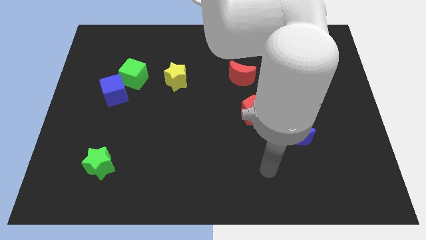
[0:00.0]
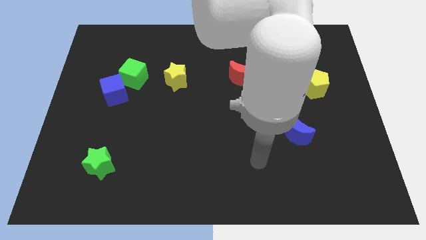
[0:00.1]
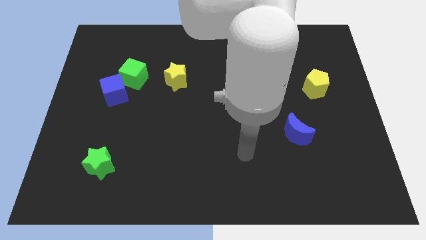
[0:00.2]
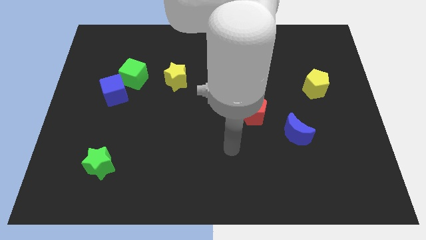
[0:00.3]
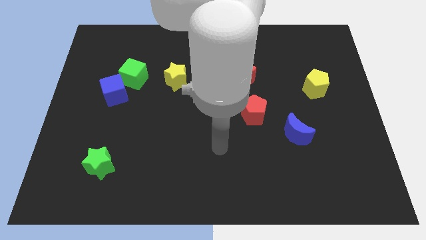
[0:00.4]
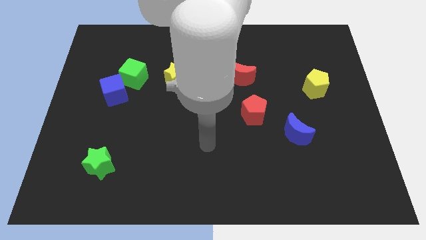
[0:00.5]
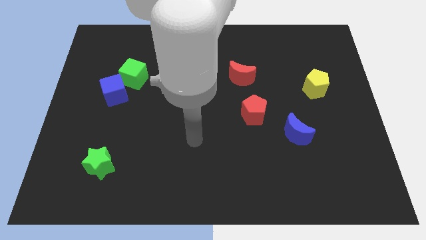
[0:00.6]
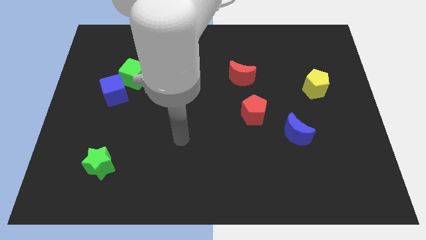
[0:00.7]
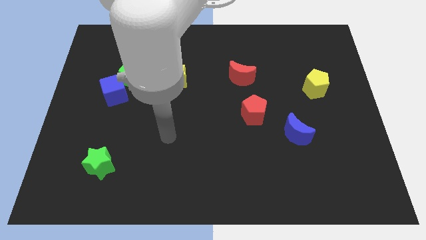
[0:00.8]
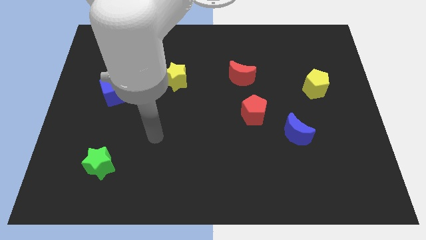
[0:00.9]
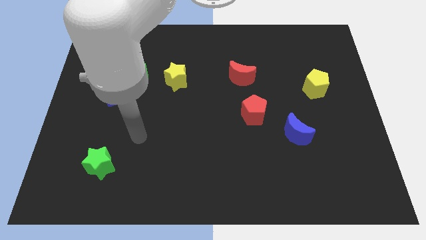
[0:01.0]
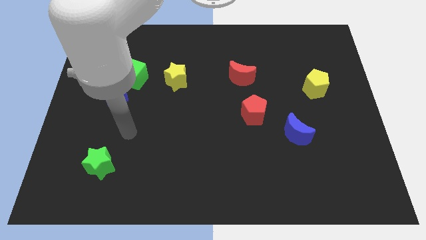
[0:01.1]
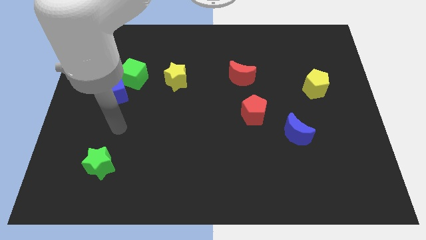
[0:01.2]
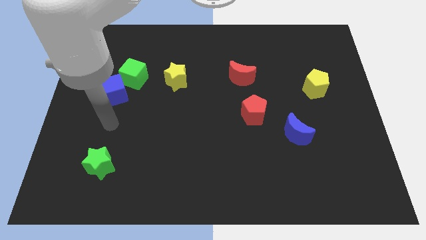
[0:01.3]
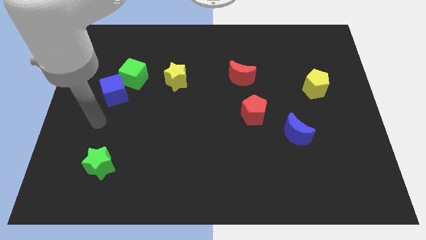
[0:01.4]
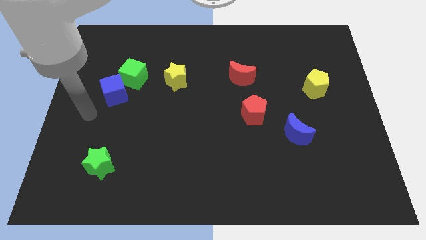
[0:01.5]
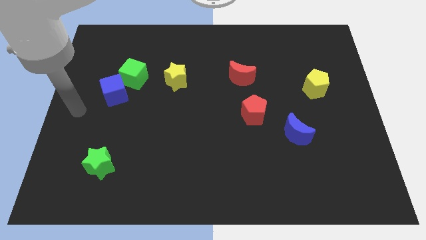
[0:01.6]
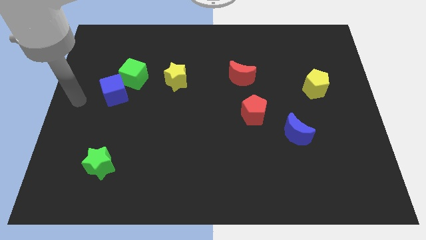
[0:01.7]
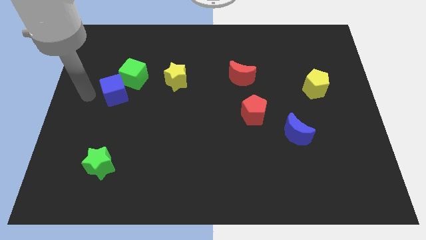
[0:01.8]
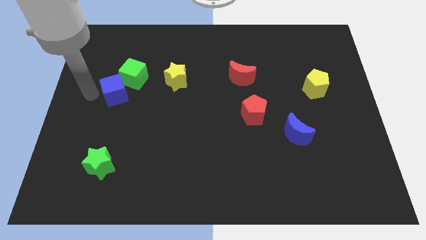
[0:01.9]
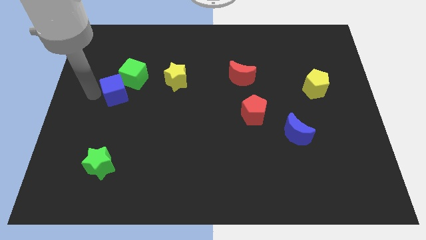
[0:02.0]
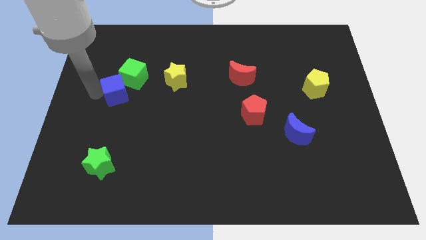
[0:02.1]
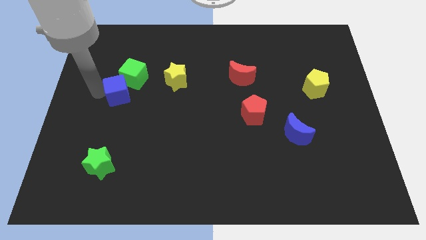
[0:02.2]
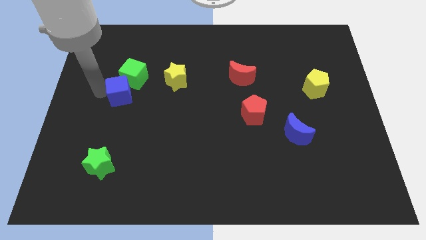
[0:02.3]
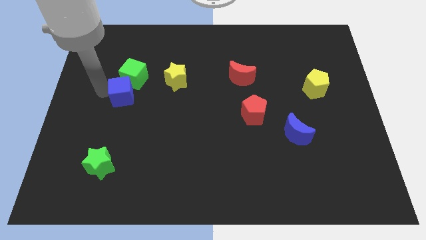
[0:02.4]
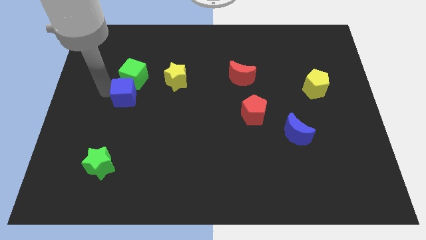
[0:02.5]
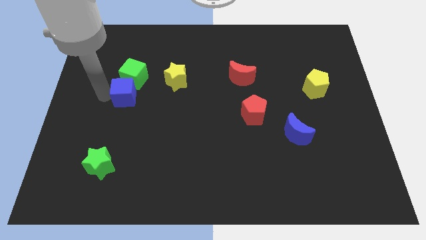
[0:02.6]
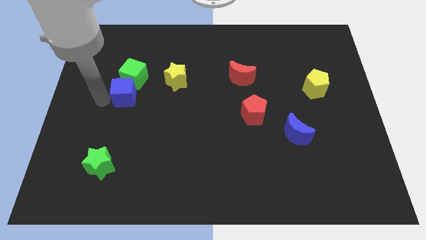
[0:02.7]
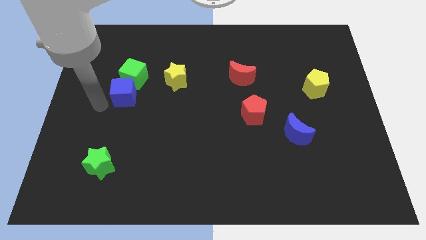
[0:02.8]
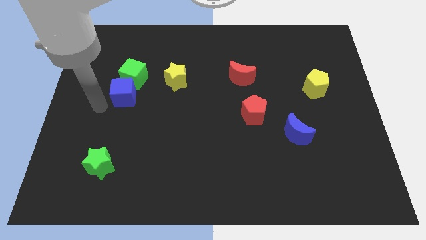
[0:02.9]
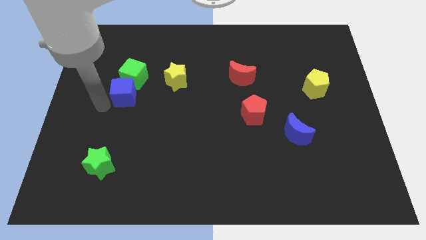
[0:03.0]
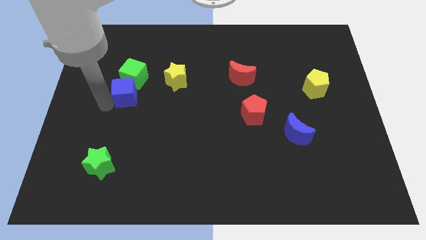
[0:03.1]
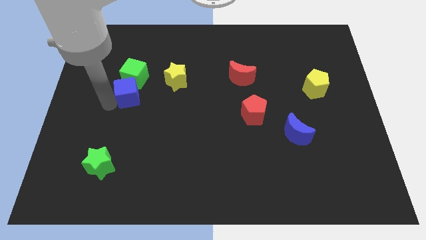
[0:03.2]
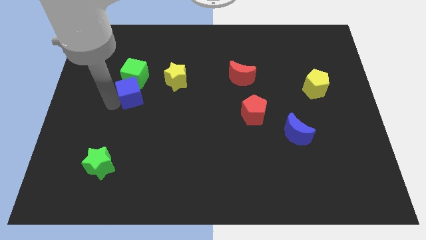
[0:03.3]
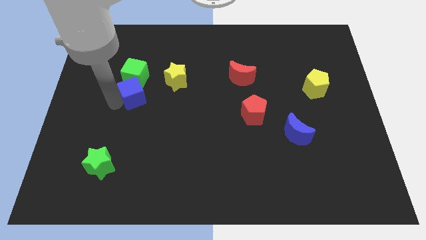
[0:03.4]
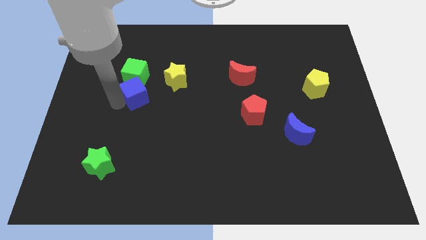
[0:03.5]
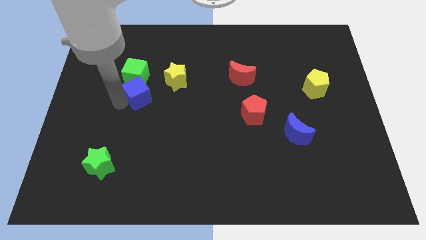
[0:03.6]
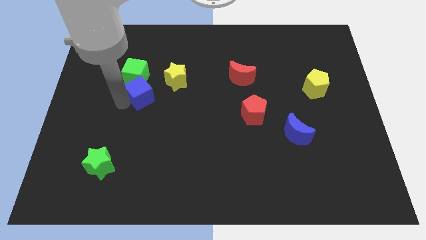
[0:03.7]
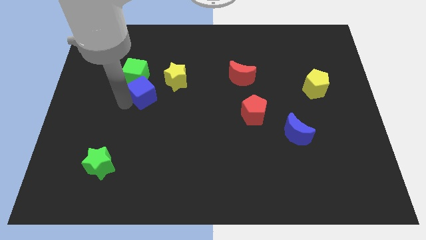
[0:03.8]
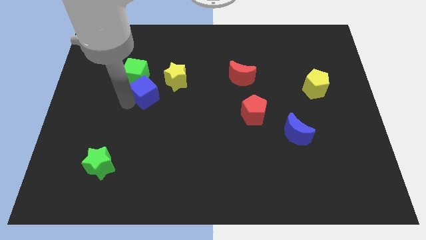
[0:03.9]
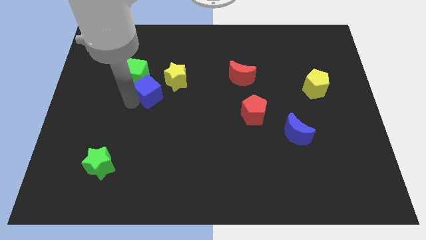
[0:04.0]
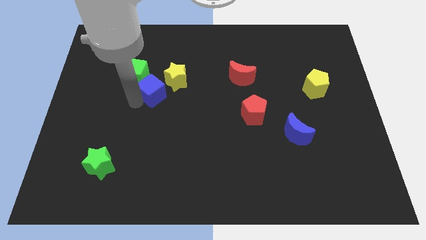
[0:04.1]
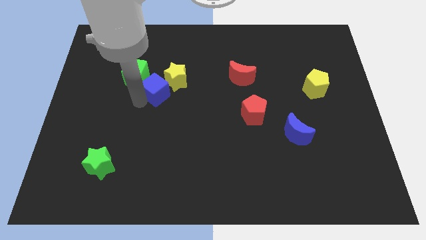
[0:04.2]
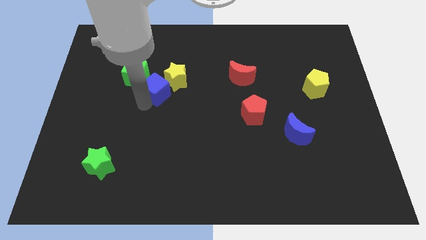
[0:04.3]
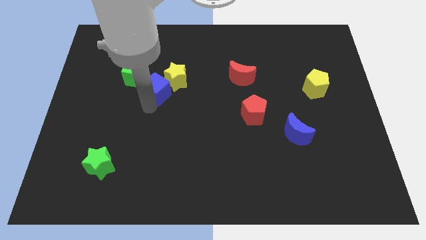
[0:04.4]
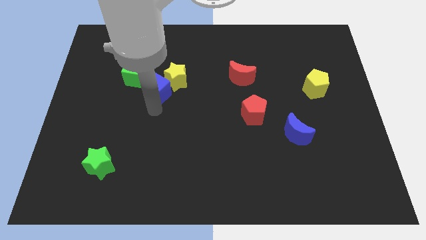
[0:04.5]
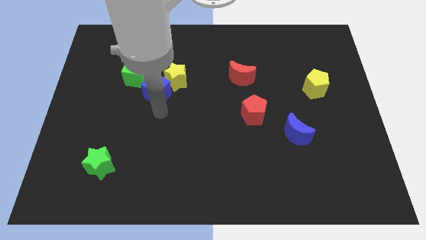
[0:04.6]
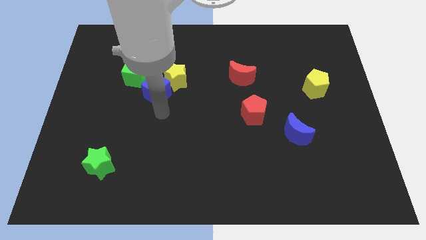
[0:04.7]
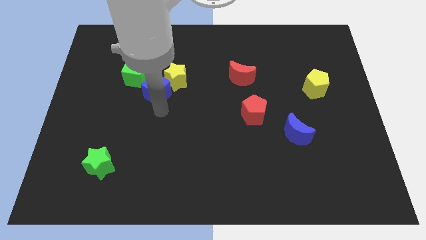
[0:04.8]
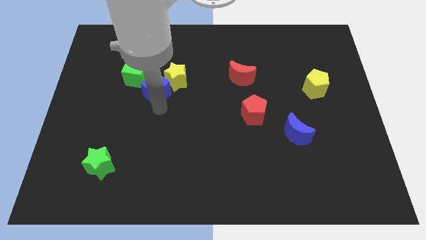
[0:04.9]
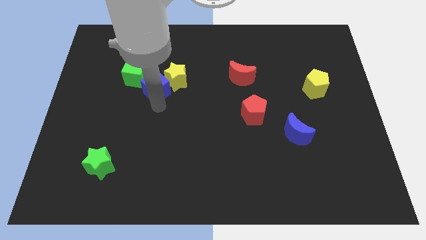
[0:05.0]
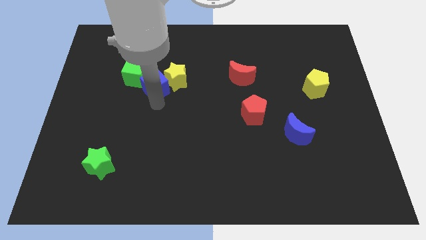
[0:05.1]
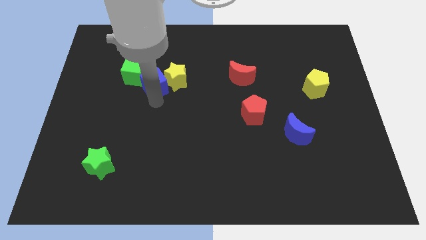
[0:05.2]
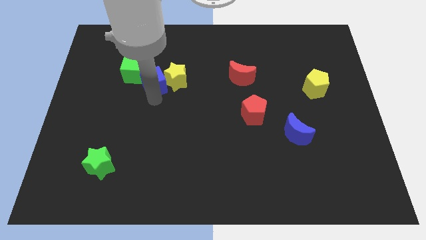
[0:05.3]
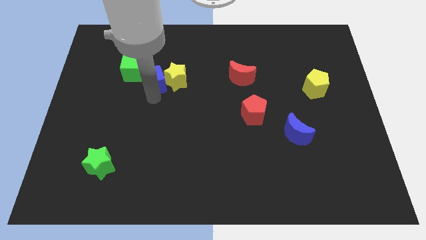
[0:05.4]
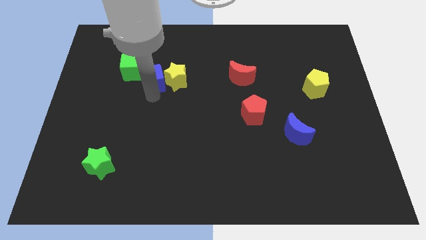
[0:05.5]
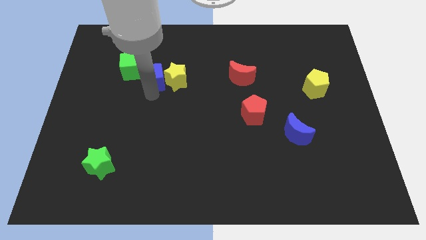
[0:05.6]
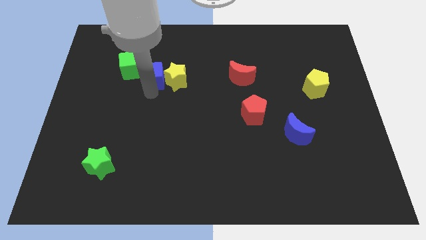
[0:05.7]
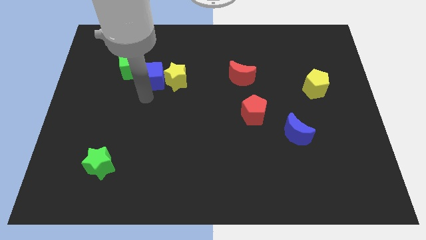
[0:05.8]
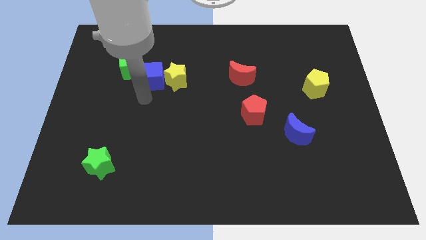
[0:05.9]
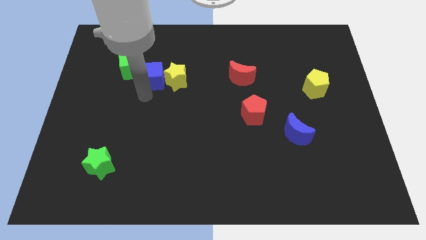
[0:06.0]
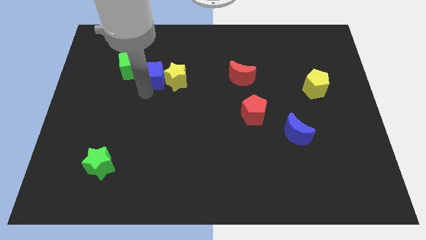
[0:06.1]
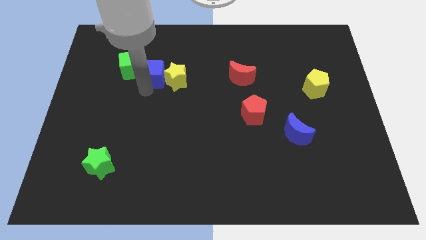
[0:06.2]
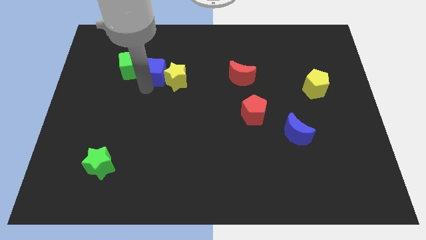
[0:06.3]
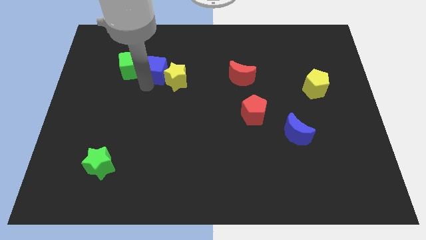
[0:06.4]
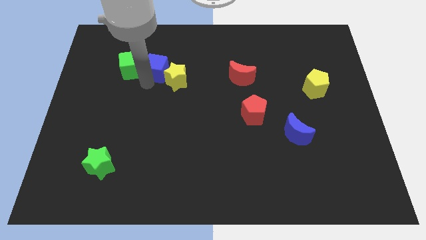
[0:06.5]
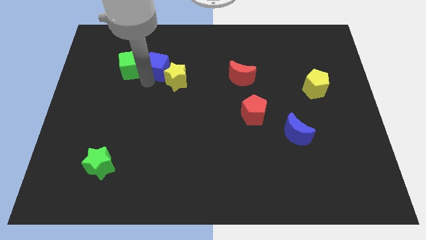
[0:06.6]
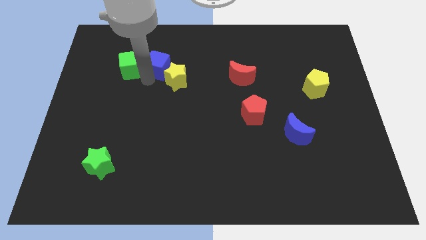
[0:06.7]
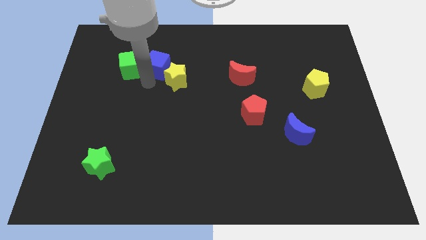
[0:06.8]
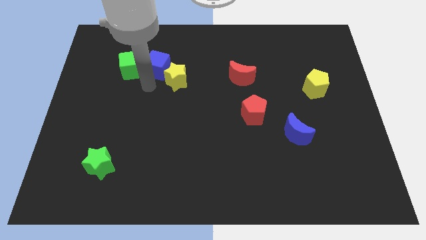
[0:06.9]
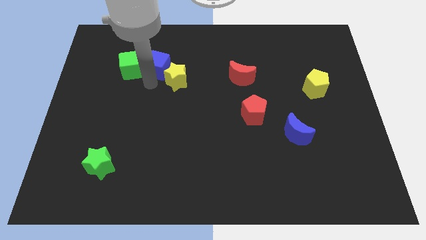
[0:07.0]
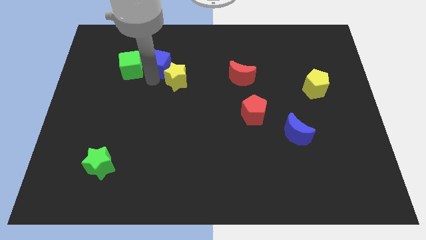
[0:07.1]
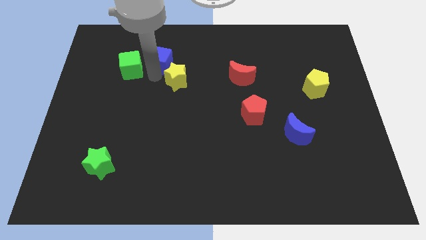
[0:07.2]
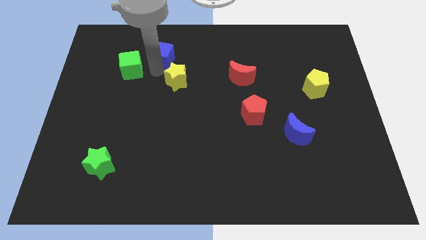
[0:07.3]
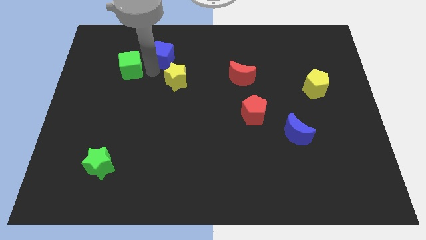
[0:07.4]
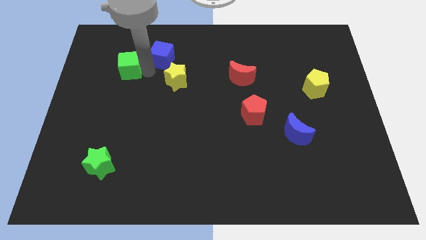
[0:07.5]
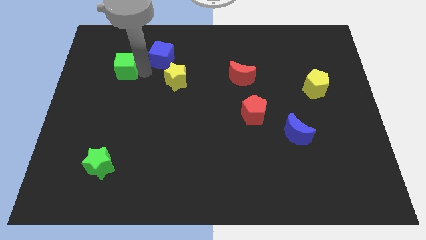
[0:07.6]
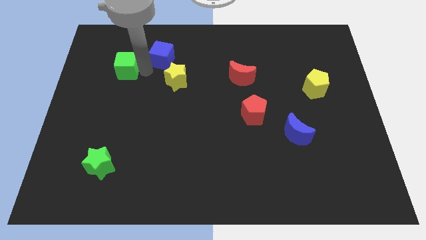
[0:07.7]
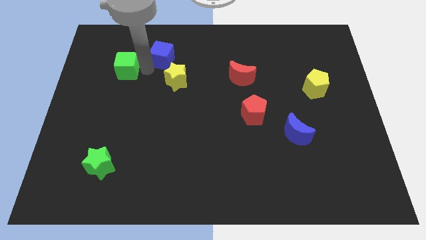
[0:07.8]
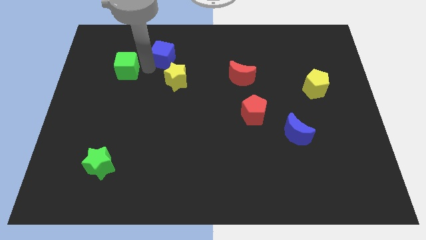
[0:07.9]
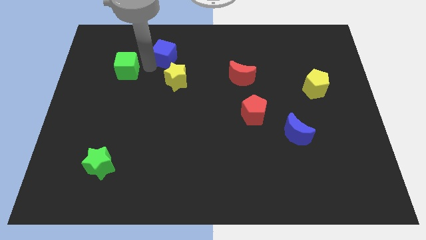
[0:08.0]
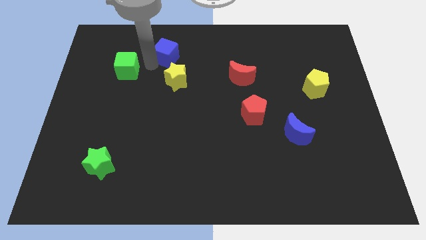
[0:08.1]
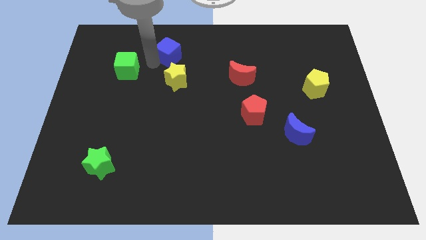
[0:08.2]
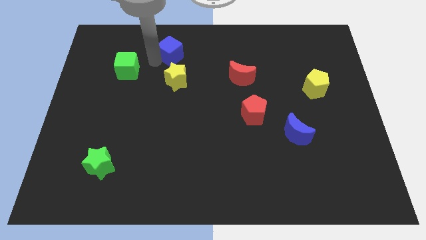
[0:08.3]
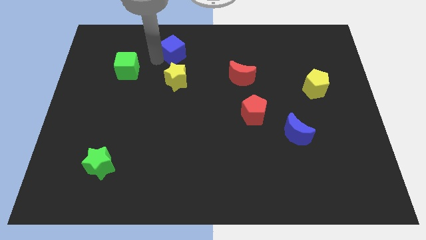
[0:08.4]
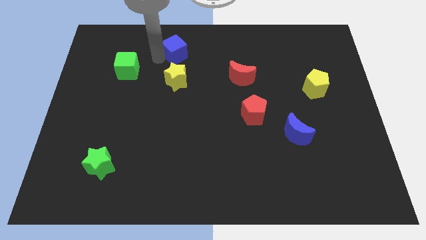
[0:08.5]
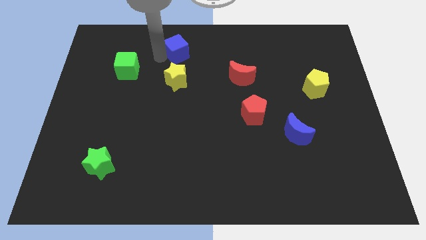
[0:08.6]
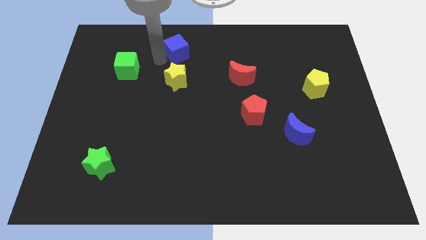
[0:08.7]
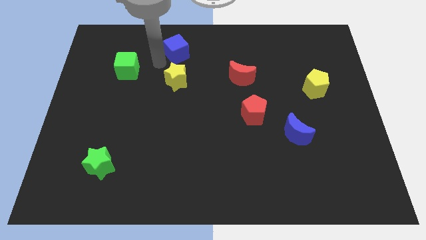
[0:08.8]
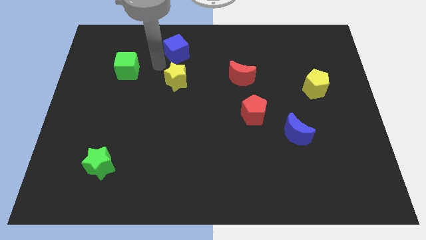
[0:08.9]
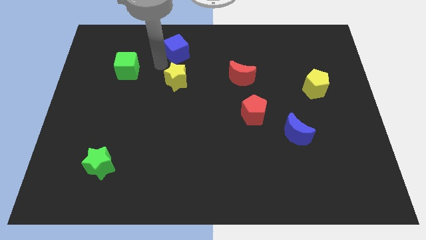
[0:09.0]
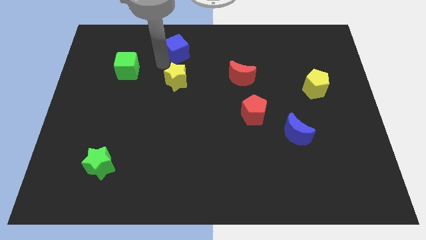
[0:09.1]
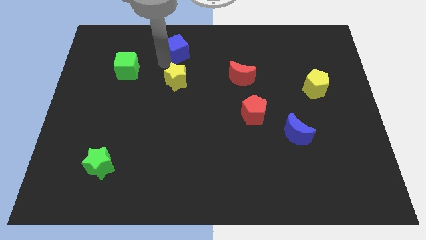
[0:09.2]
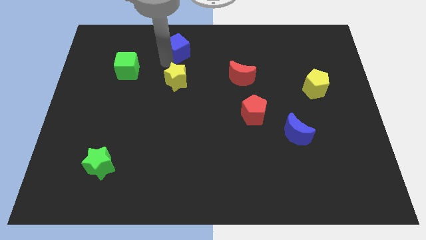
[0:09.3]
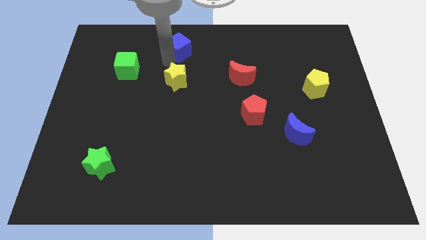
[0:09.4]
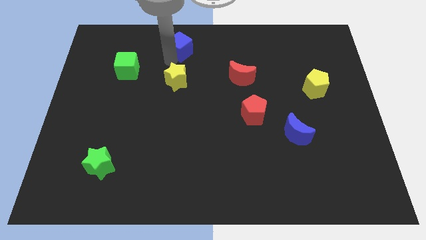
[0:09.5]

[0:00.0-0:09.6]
push the blue cube to the top side
